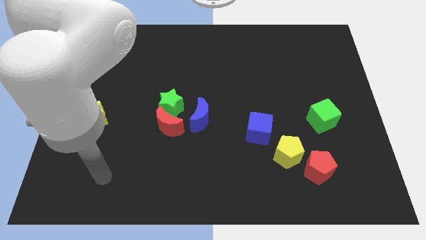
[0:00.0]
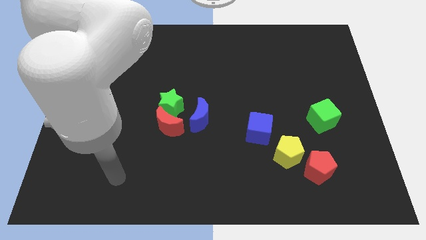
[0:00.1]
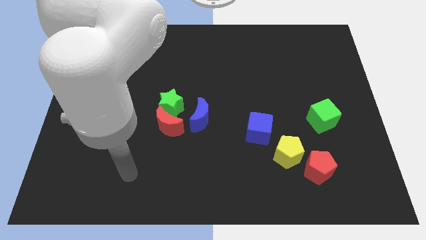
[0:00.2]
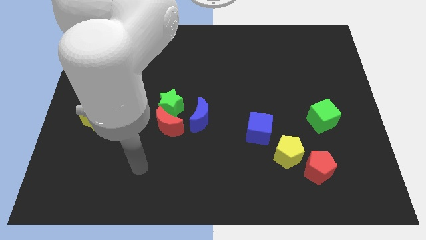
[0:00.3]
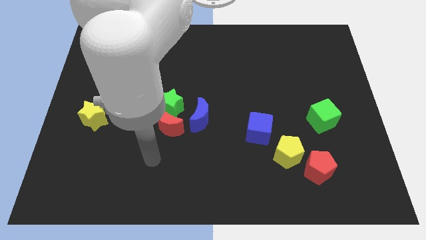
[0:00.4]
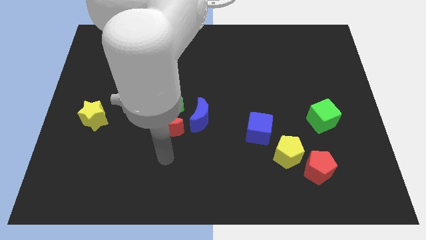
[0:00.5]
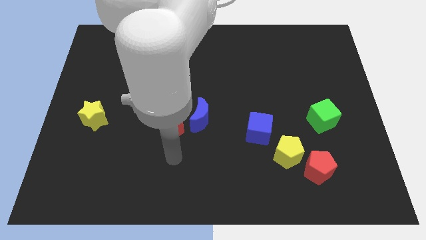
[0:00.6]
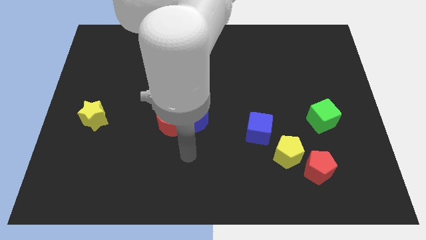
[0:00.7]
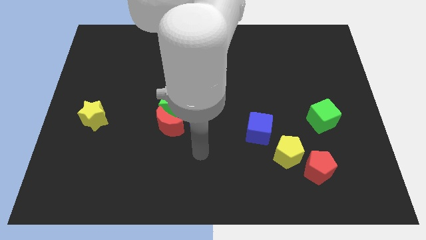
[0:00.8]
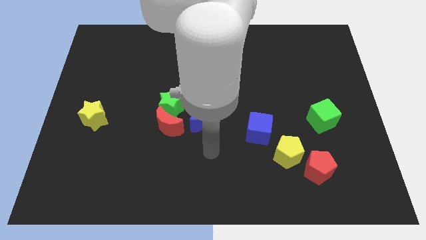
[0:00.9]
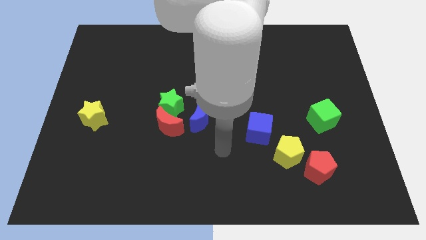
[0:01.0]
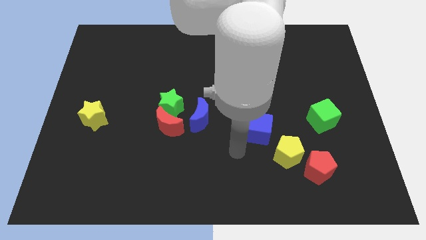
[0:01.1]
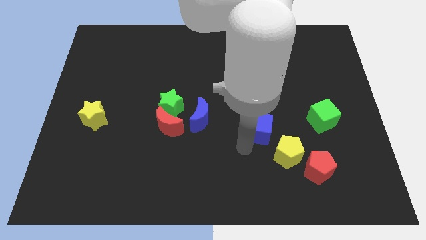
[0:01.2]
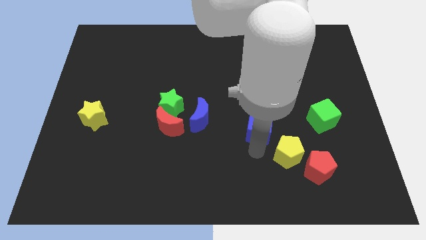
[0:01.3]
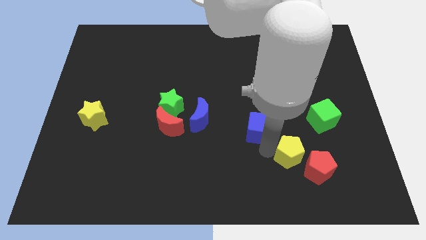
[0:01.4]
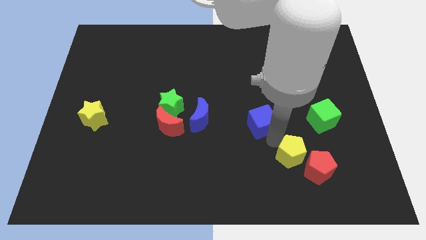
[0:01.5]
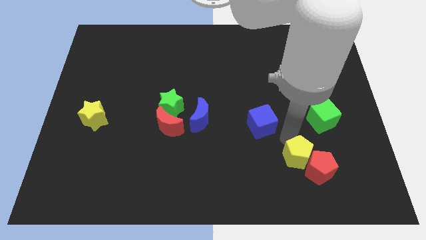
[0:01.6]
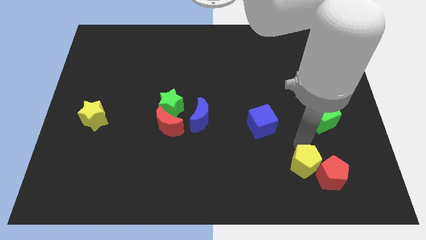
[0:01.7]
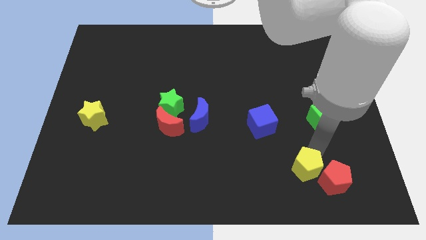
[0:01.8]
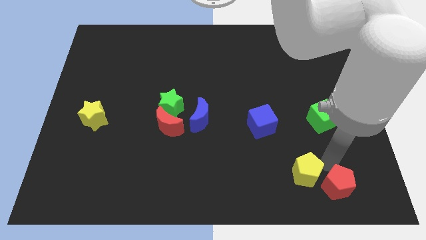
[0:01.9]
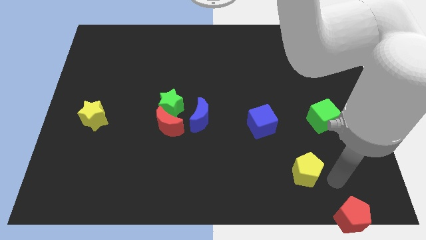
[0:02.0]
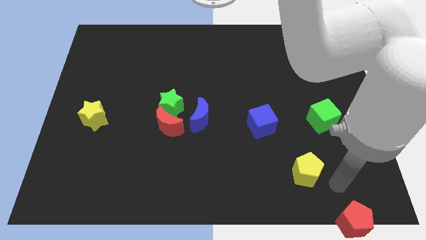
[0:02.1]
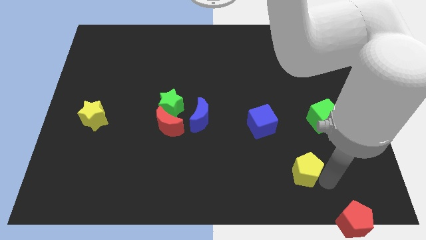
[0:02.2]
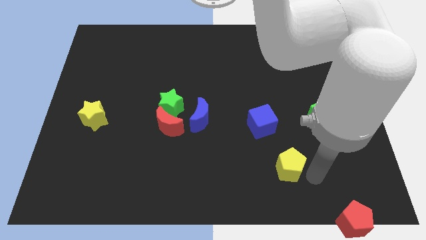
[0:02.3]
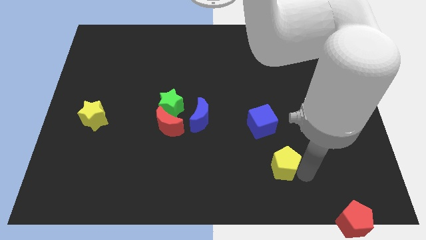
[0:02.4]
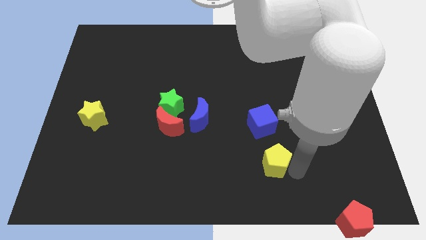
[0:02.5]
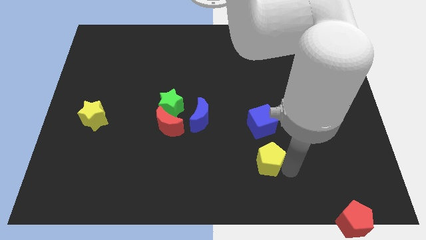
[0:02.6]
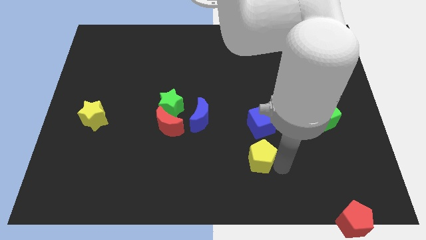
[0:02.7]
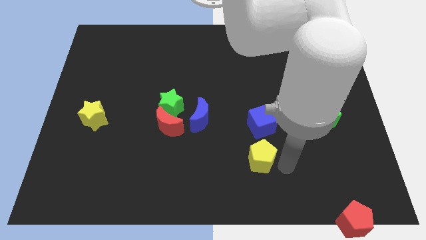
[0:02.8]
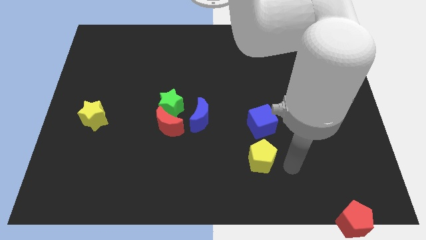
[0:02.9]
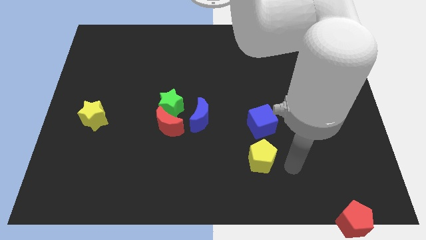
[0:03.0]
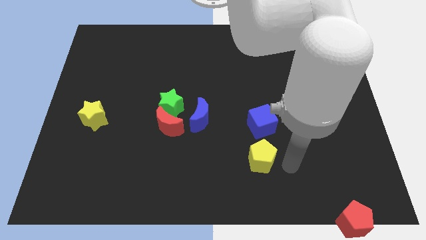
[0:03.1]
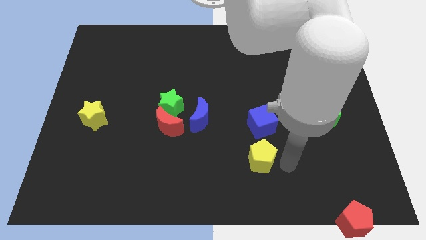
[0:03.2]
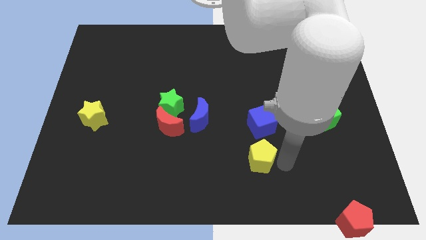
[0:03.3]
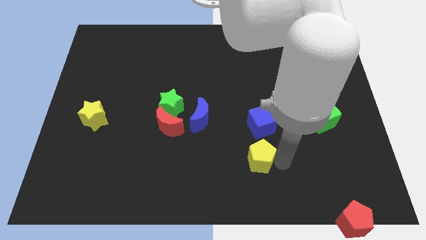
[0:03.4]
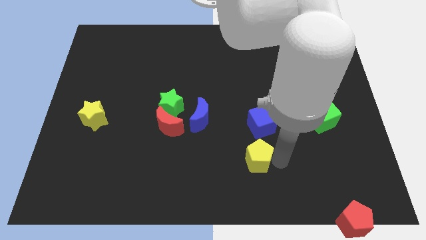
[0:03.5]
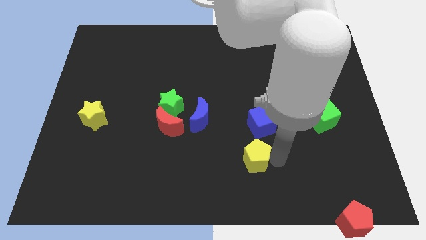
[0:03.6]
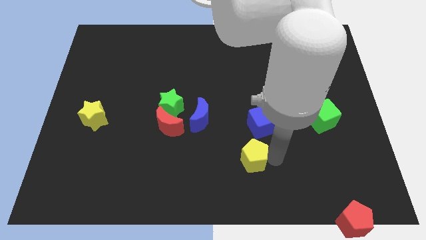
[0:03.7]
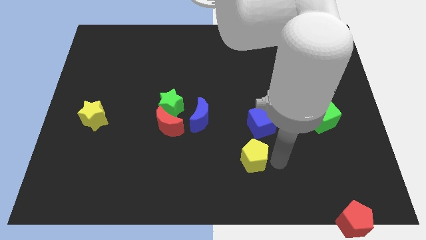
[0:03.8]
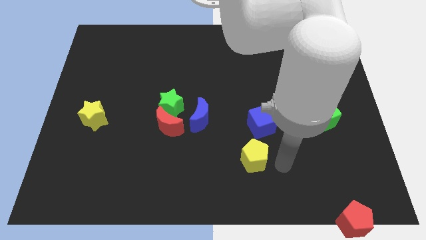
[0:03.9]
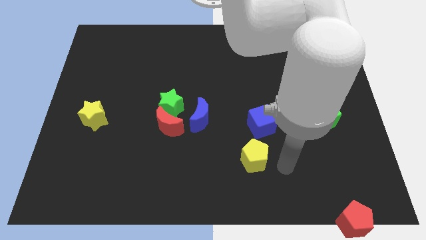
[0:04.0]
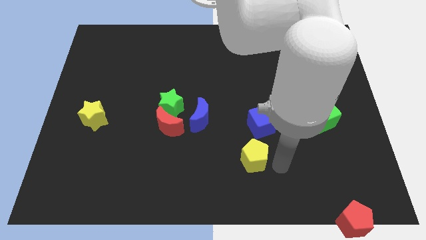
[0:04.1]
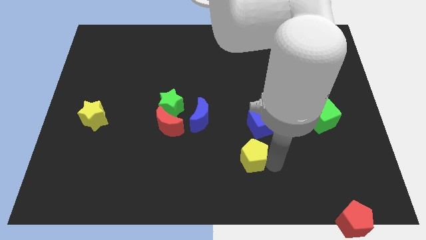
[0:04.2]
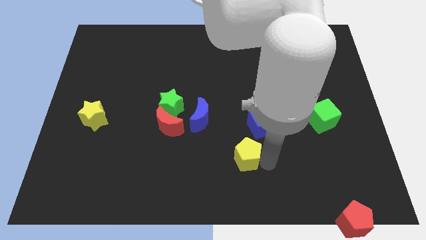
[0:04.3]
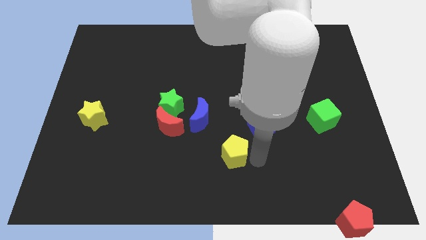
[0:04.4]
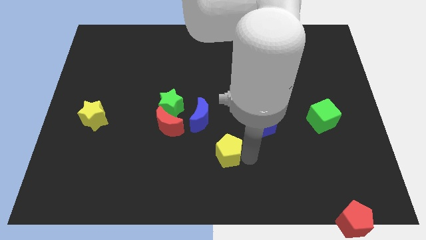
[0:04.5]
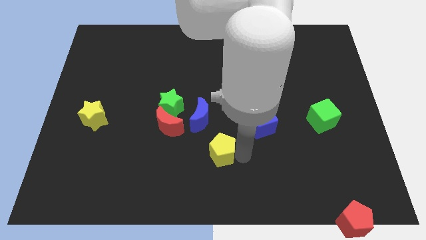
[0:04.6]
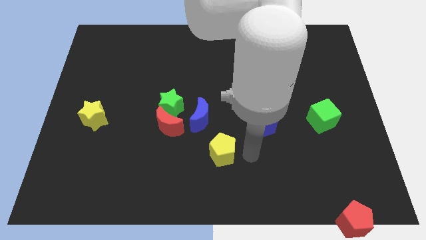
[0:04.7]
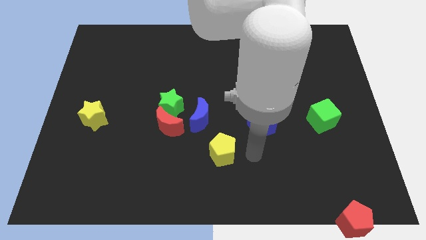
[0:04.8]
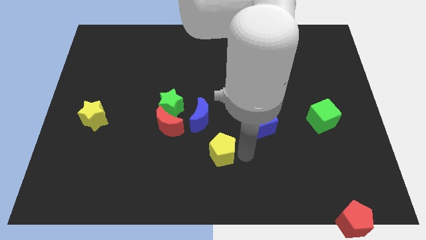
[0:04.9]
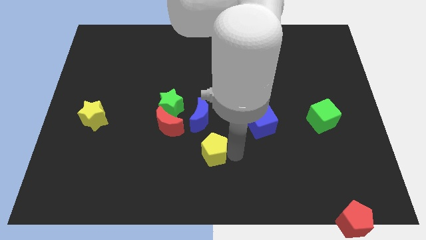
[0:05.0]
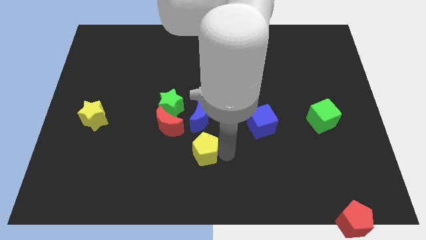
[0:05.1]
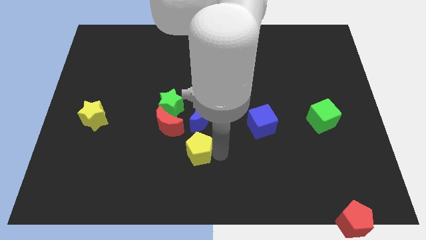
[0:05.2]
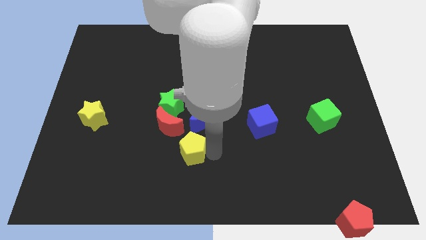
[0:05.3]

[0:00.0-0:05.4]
slide the yellow pentagon to the left

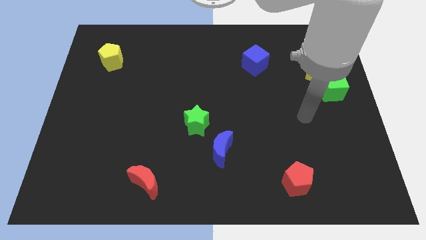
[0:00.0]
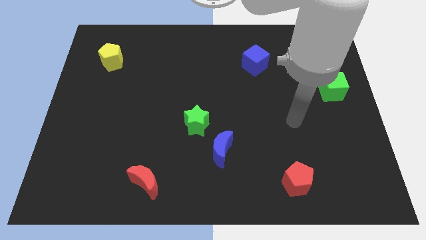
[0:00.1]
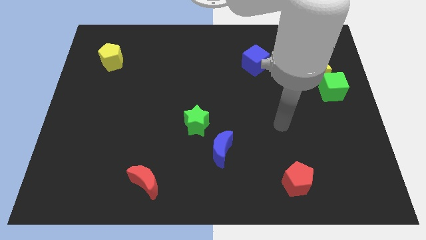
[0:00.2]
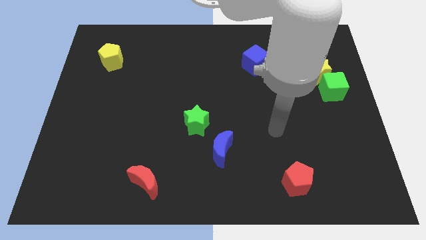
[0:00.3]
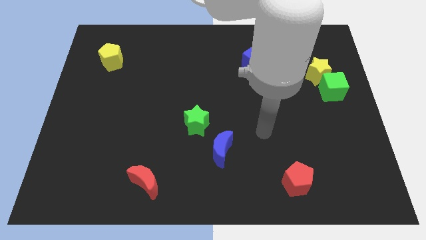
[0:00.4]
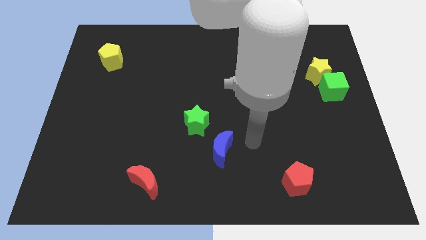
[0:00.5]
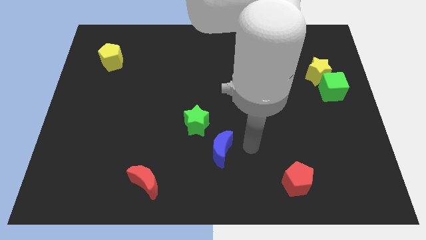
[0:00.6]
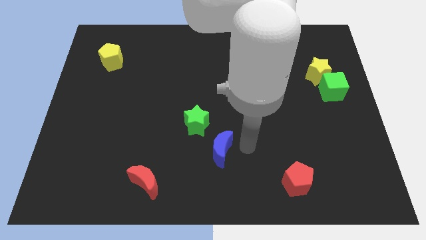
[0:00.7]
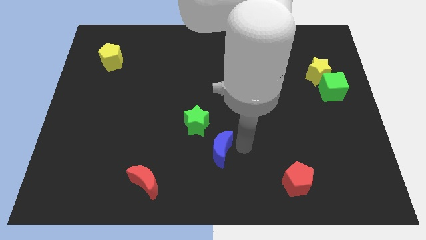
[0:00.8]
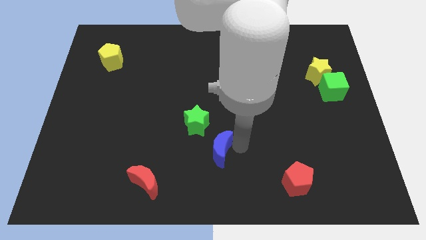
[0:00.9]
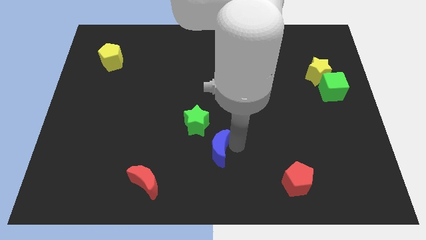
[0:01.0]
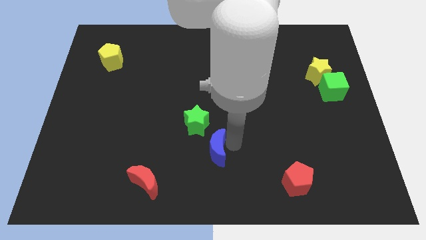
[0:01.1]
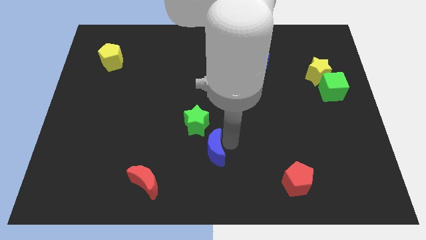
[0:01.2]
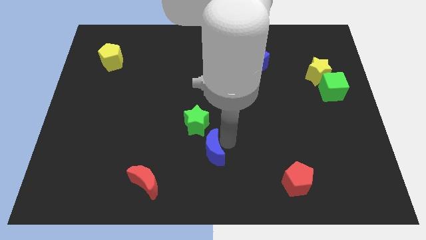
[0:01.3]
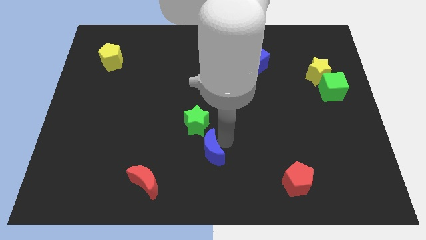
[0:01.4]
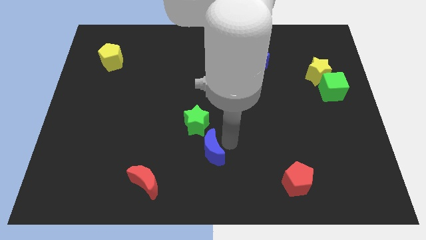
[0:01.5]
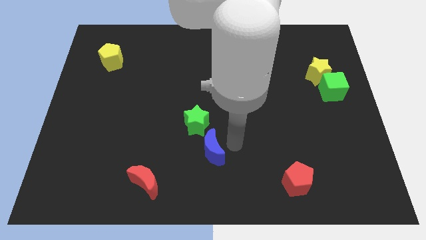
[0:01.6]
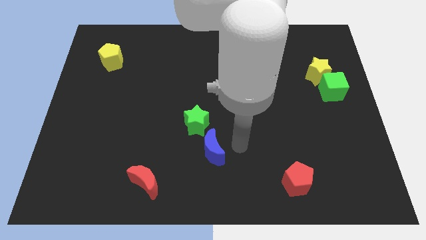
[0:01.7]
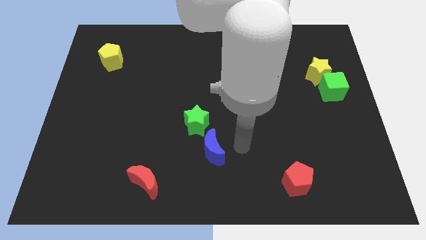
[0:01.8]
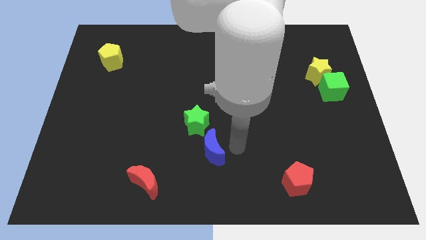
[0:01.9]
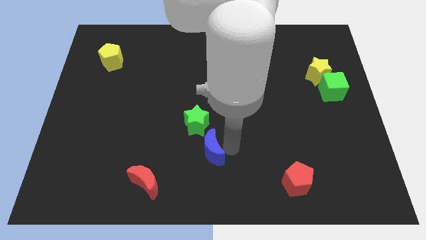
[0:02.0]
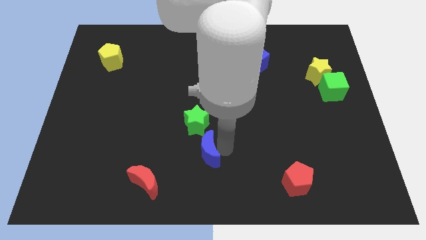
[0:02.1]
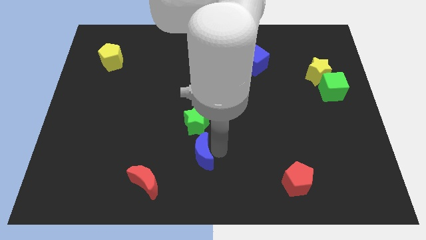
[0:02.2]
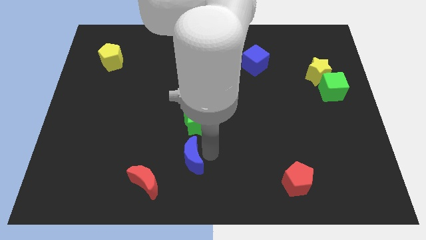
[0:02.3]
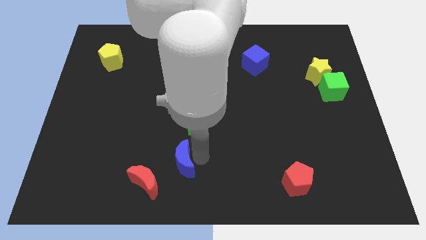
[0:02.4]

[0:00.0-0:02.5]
slightly slide the blue moon to the left
